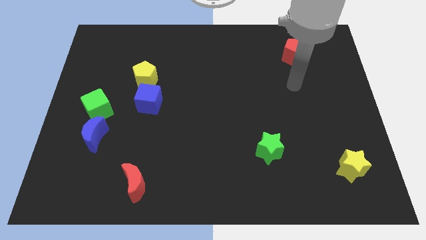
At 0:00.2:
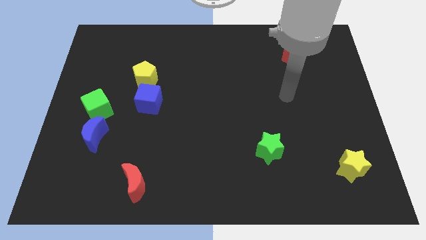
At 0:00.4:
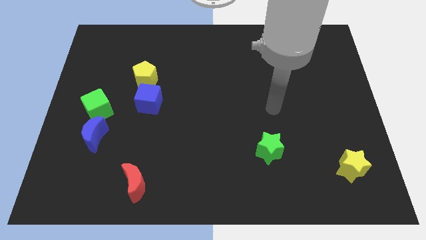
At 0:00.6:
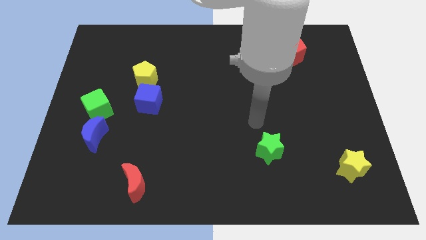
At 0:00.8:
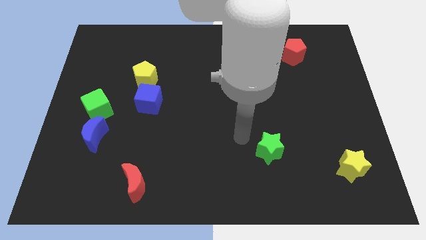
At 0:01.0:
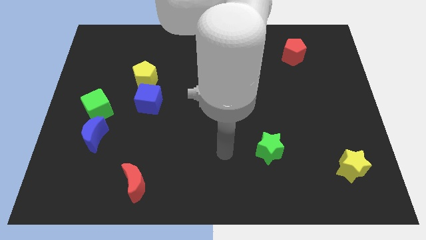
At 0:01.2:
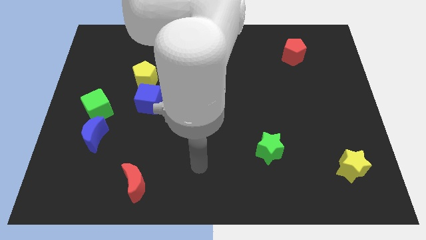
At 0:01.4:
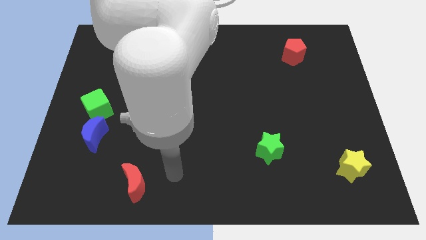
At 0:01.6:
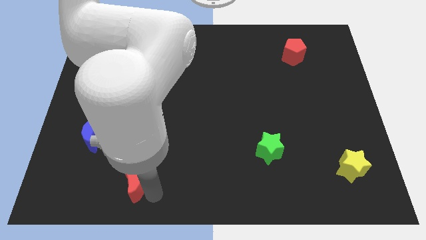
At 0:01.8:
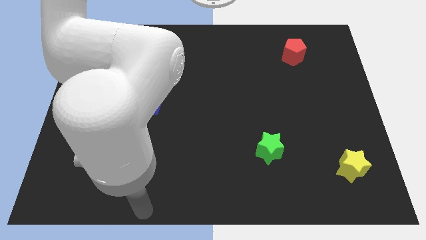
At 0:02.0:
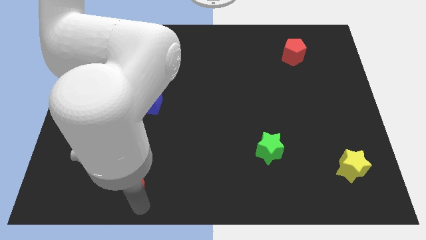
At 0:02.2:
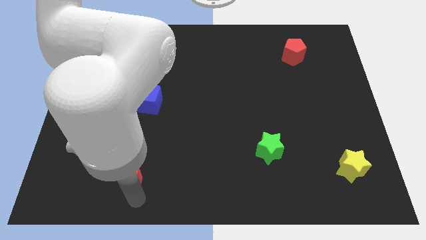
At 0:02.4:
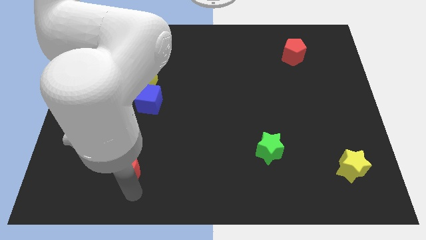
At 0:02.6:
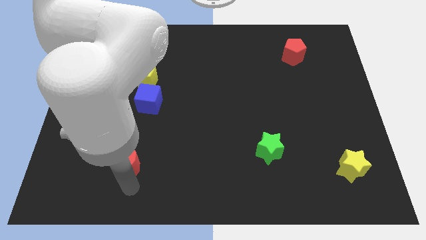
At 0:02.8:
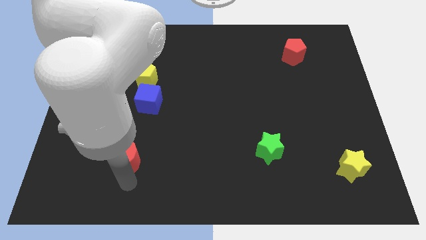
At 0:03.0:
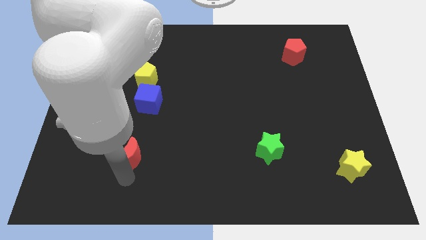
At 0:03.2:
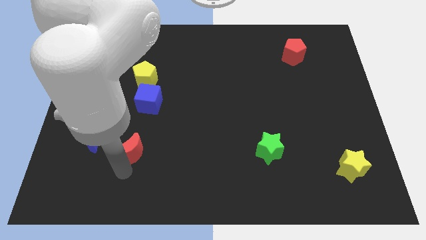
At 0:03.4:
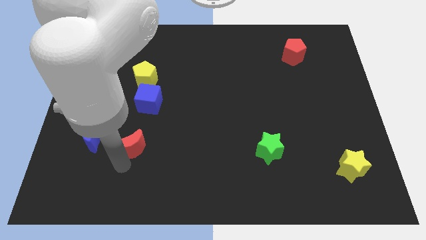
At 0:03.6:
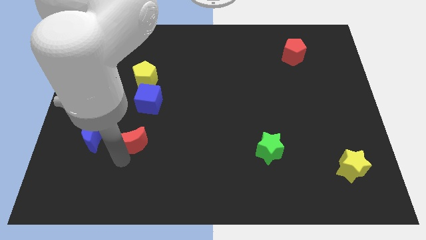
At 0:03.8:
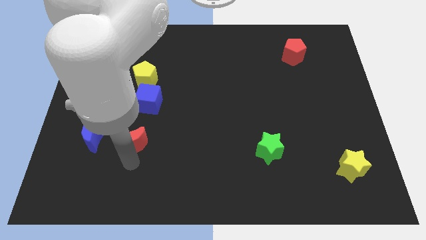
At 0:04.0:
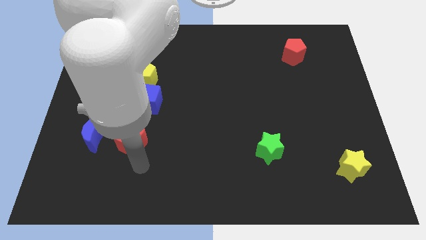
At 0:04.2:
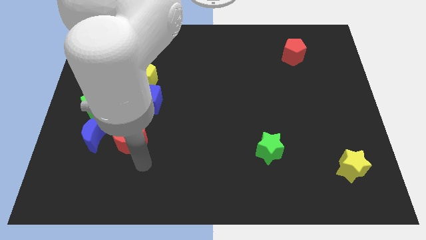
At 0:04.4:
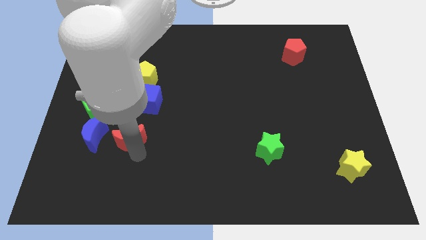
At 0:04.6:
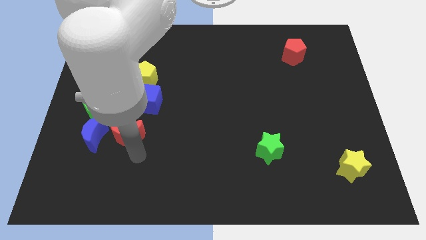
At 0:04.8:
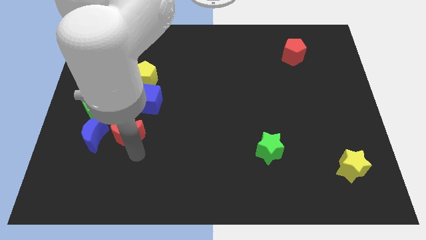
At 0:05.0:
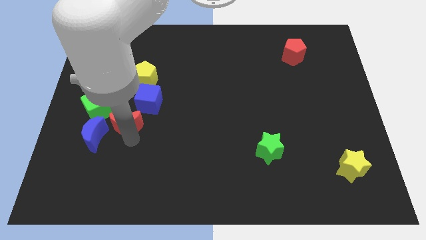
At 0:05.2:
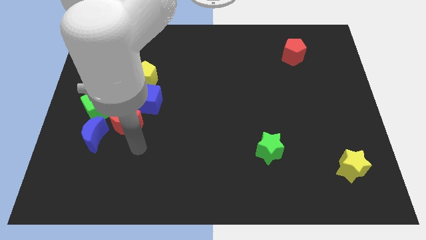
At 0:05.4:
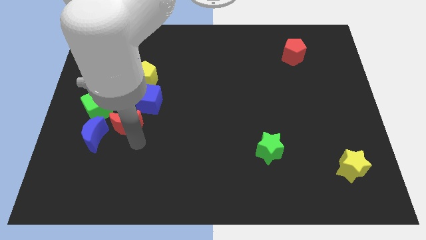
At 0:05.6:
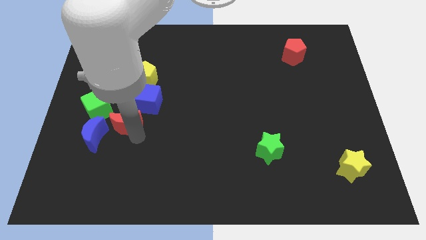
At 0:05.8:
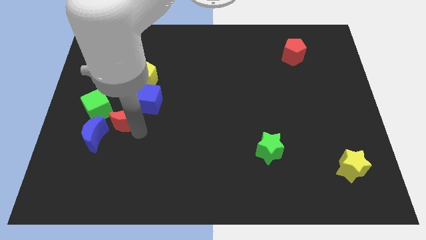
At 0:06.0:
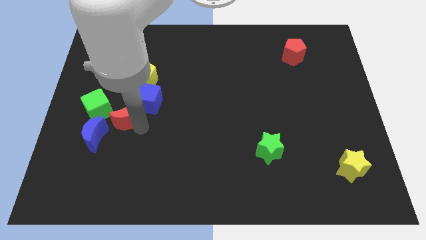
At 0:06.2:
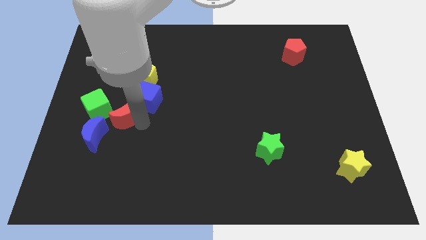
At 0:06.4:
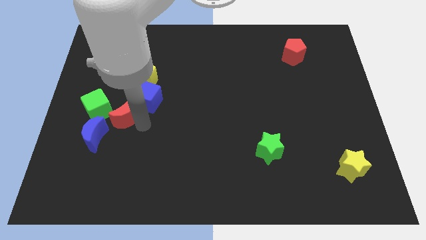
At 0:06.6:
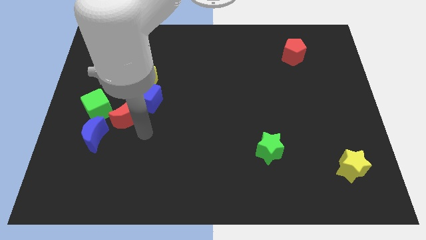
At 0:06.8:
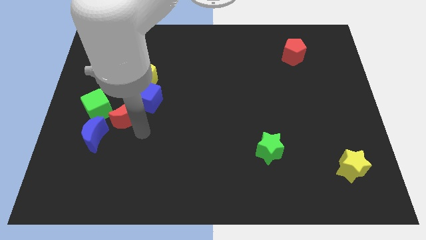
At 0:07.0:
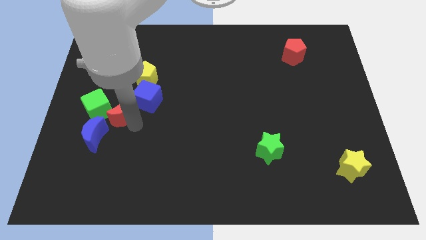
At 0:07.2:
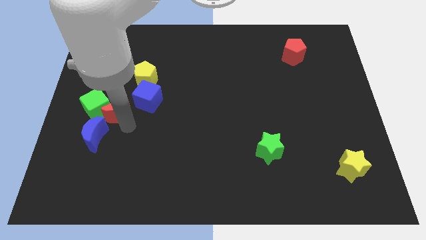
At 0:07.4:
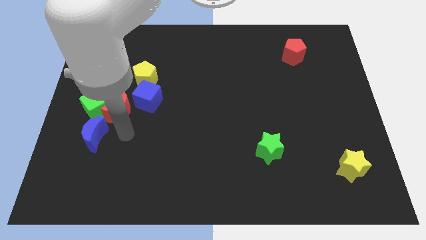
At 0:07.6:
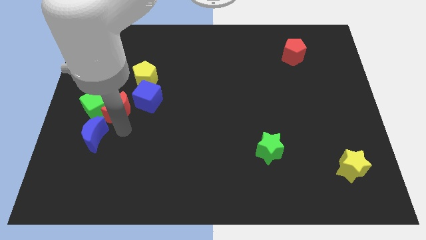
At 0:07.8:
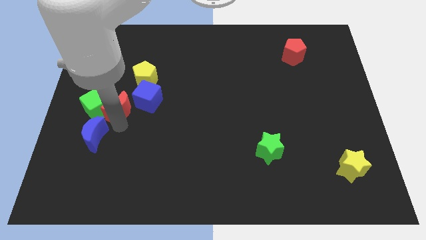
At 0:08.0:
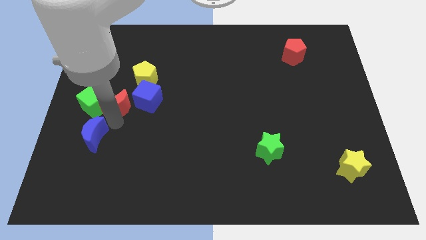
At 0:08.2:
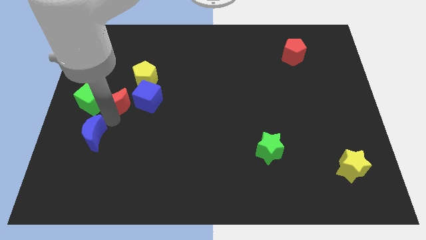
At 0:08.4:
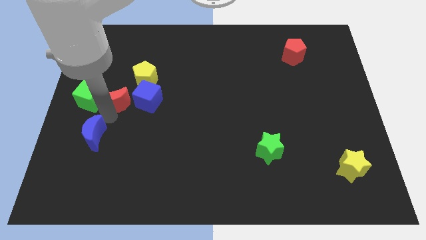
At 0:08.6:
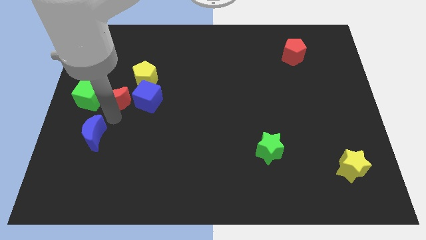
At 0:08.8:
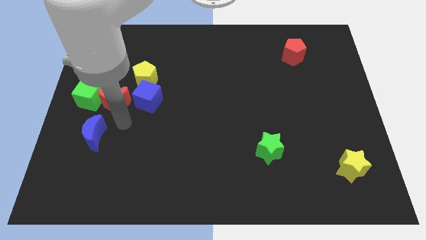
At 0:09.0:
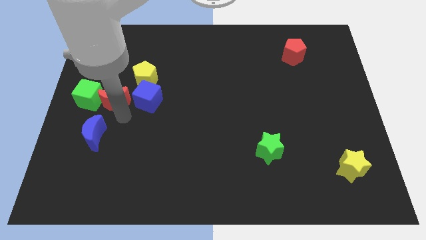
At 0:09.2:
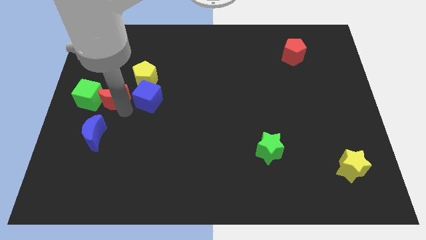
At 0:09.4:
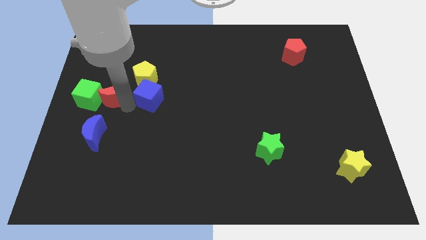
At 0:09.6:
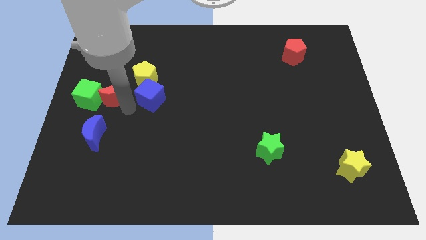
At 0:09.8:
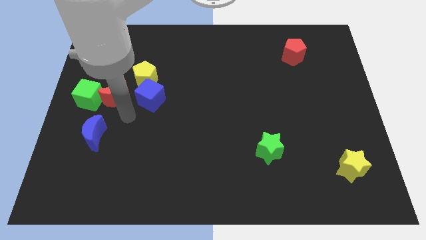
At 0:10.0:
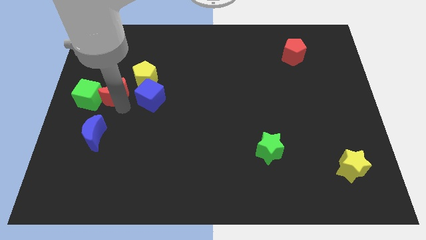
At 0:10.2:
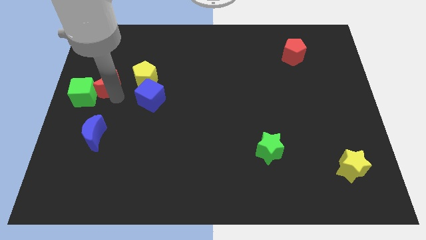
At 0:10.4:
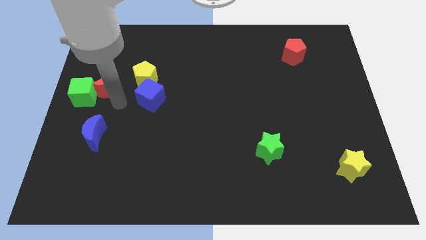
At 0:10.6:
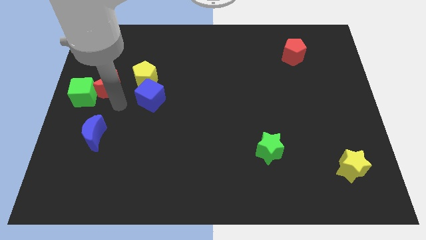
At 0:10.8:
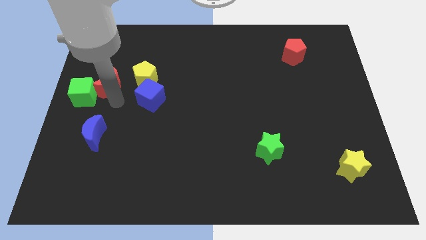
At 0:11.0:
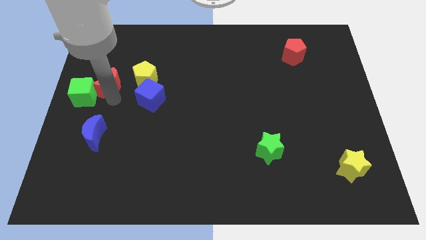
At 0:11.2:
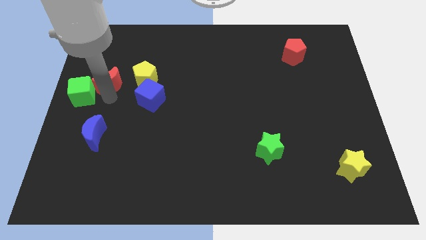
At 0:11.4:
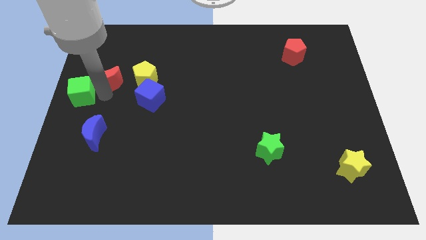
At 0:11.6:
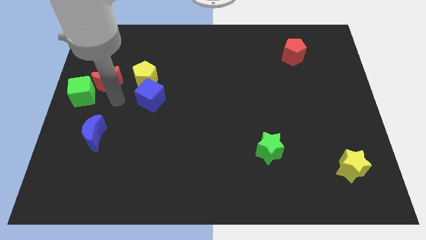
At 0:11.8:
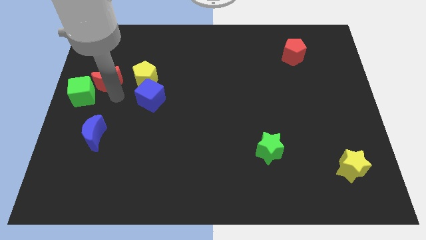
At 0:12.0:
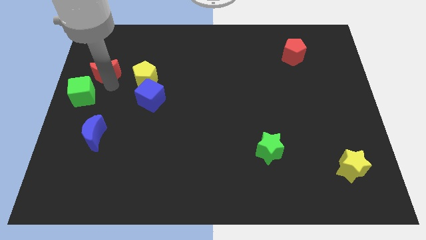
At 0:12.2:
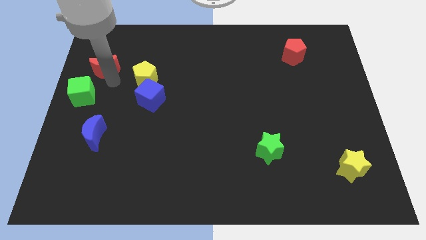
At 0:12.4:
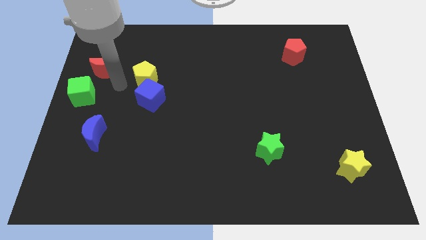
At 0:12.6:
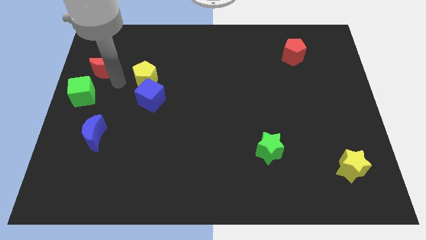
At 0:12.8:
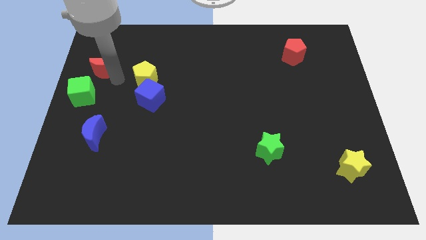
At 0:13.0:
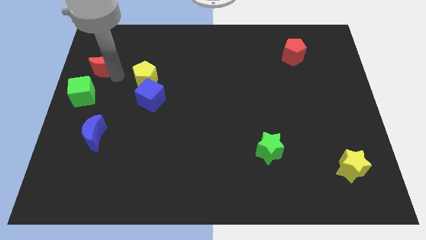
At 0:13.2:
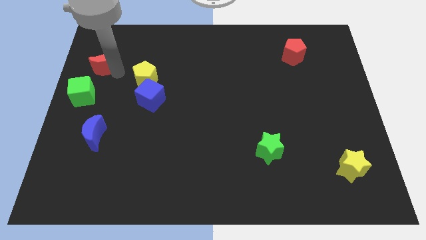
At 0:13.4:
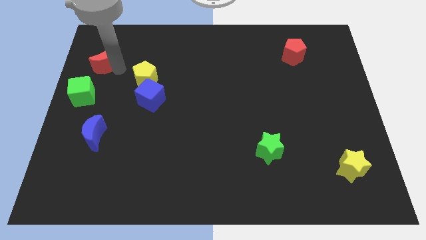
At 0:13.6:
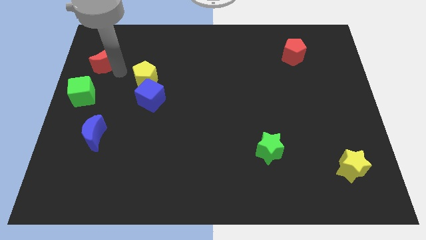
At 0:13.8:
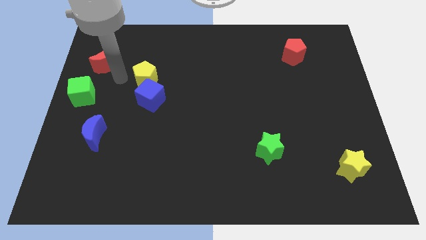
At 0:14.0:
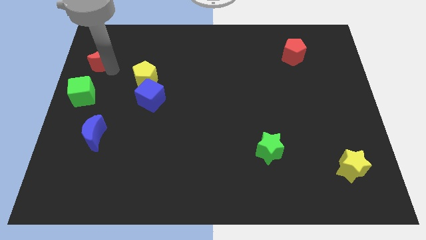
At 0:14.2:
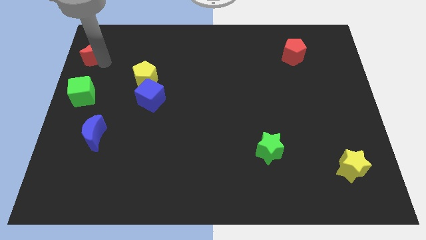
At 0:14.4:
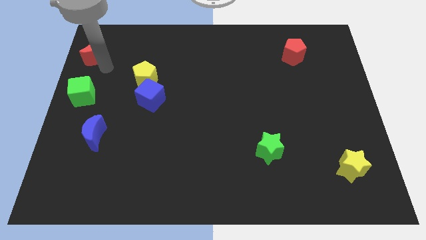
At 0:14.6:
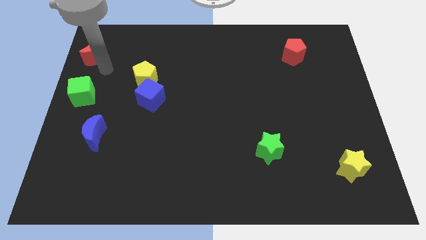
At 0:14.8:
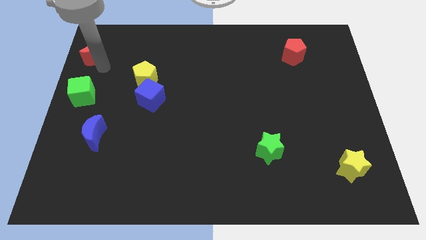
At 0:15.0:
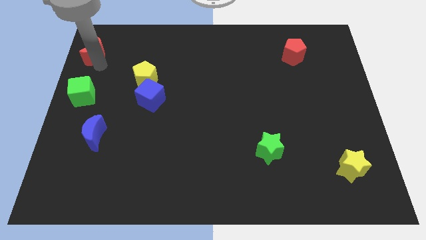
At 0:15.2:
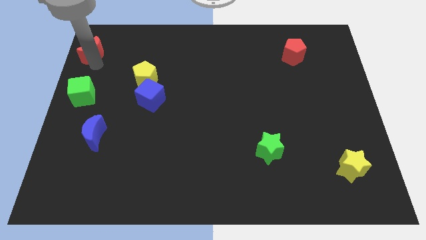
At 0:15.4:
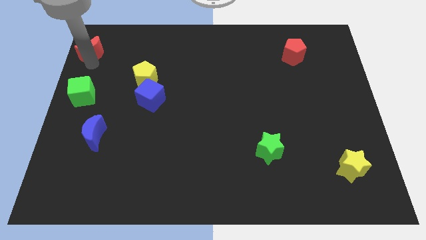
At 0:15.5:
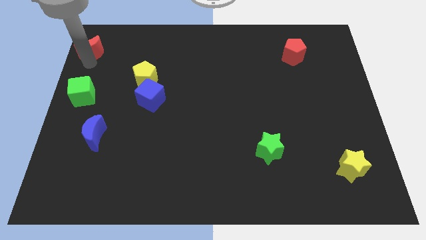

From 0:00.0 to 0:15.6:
put the red moon to the top left of the board
